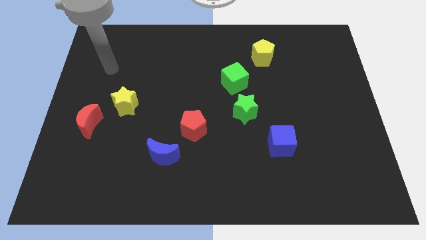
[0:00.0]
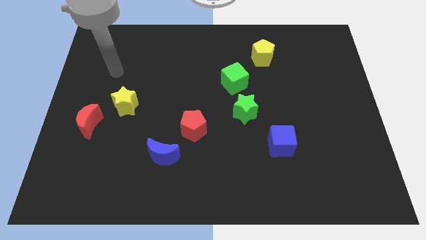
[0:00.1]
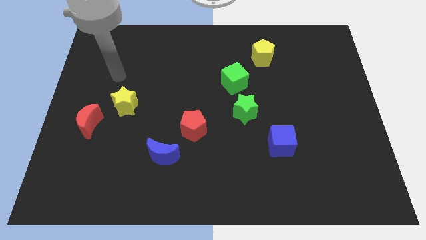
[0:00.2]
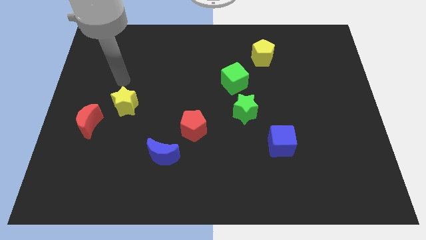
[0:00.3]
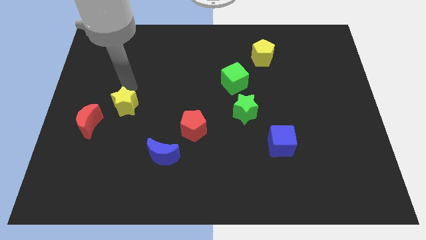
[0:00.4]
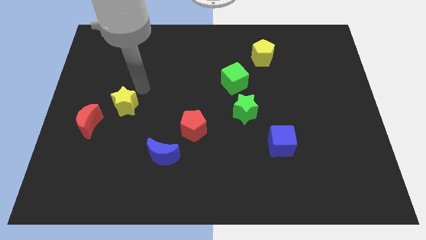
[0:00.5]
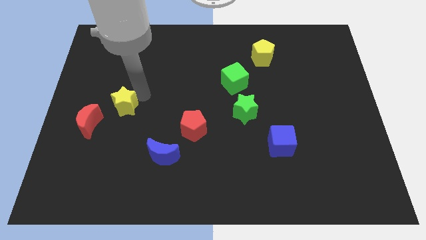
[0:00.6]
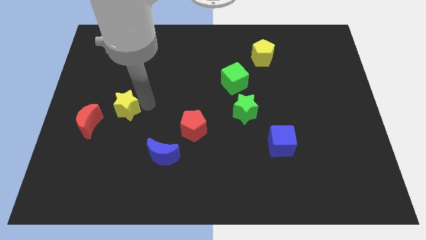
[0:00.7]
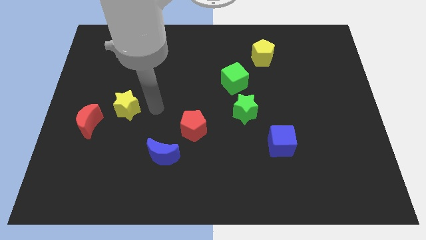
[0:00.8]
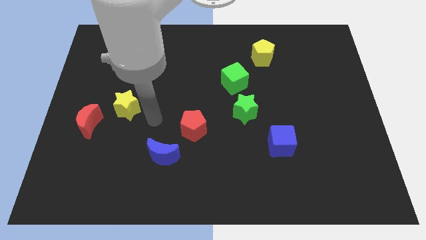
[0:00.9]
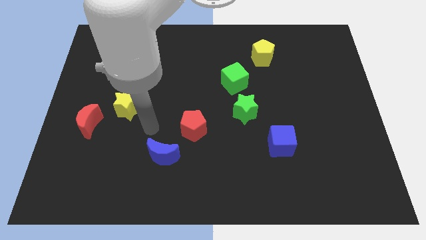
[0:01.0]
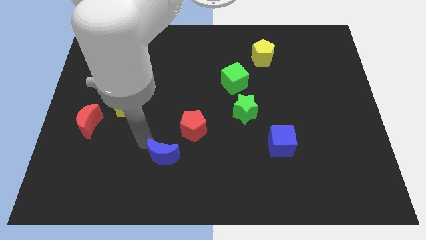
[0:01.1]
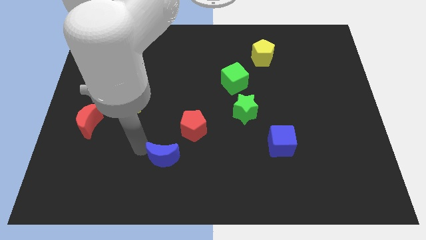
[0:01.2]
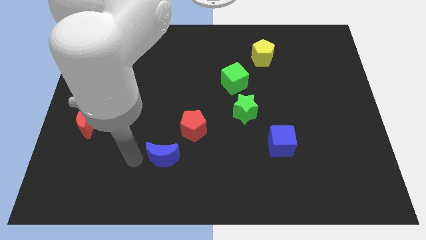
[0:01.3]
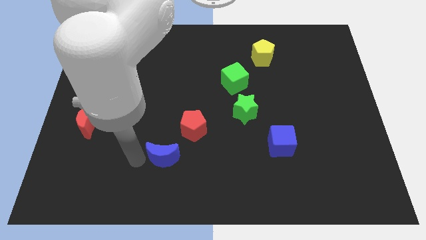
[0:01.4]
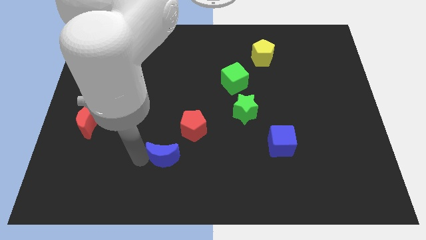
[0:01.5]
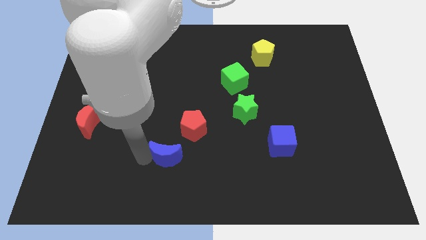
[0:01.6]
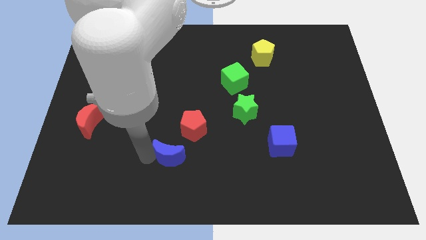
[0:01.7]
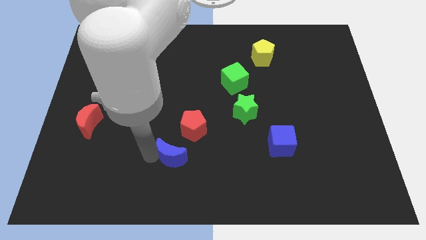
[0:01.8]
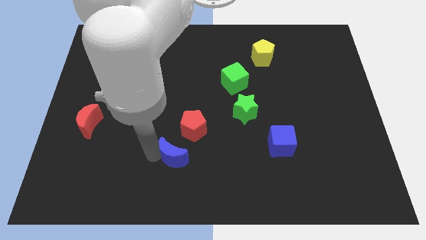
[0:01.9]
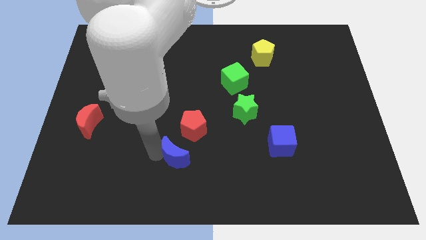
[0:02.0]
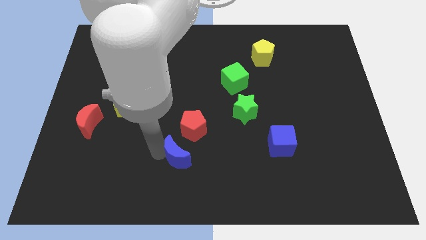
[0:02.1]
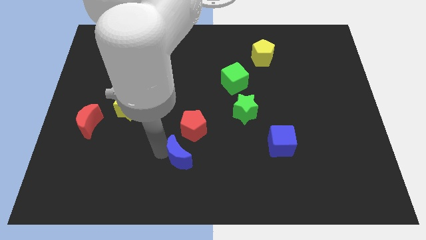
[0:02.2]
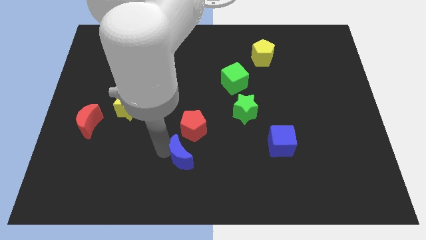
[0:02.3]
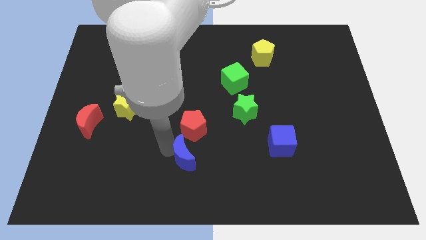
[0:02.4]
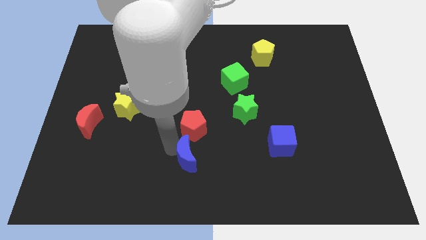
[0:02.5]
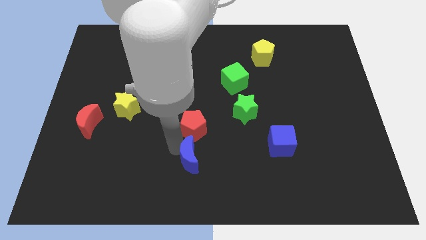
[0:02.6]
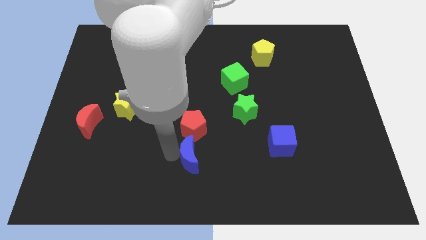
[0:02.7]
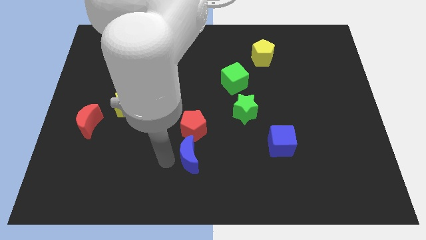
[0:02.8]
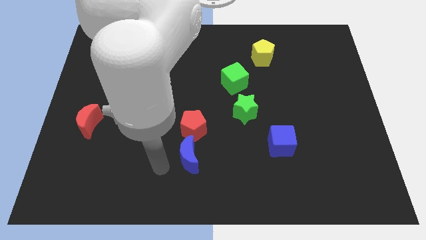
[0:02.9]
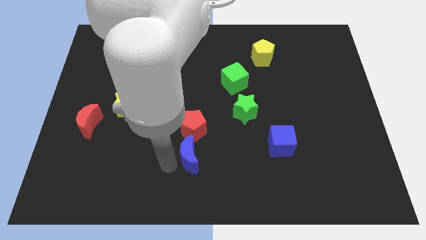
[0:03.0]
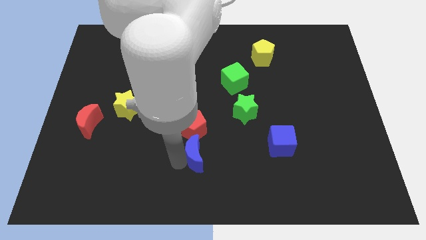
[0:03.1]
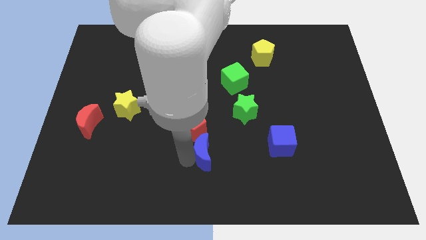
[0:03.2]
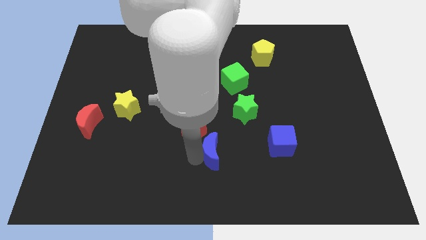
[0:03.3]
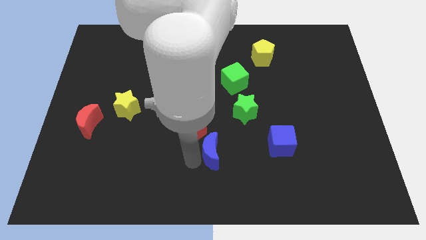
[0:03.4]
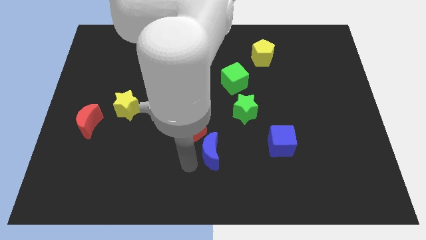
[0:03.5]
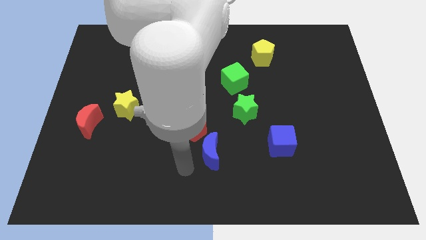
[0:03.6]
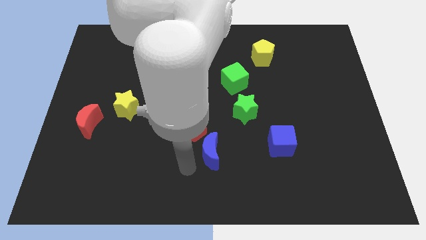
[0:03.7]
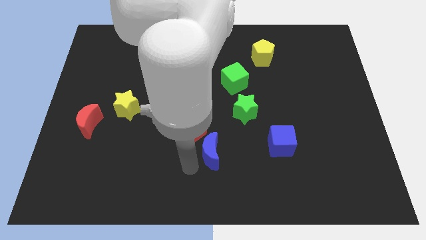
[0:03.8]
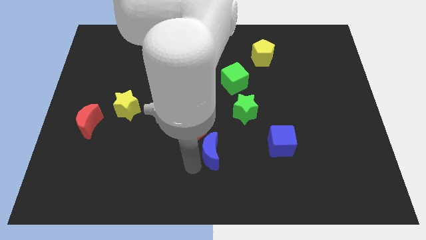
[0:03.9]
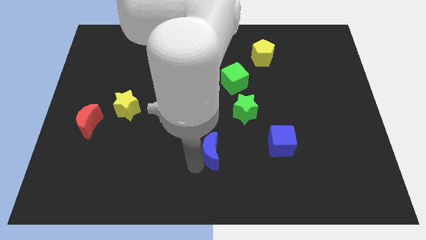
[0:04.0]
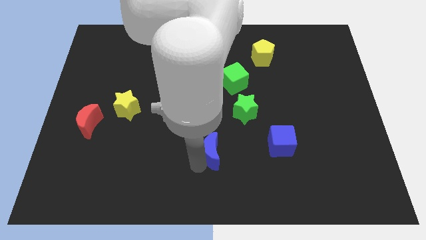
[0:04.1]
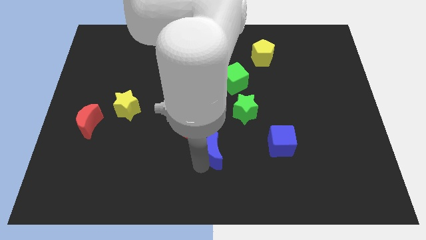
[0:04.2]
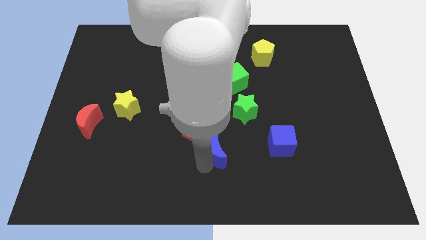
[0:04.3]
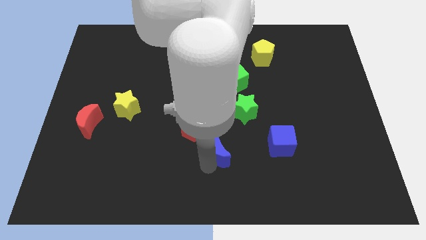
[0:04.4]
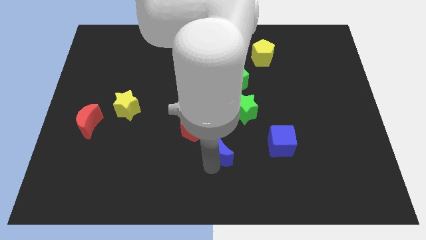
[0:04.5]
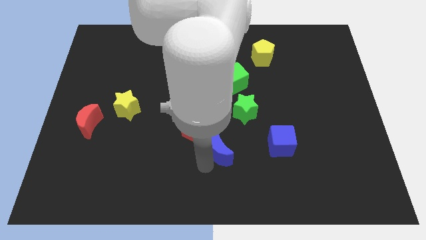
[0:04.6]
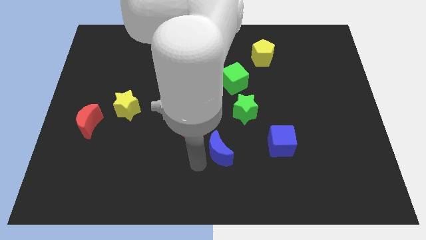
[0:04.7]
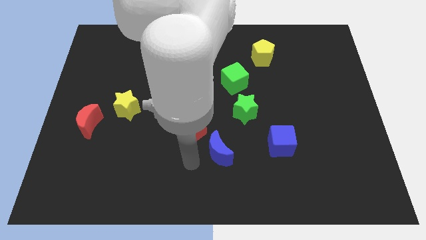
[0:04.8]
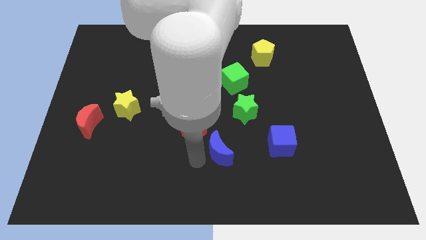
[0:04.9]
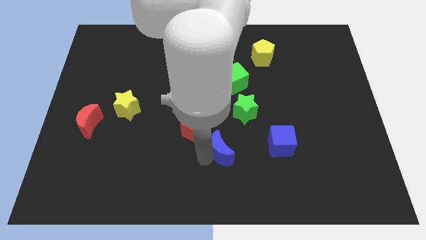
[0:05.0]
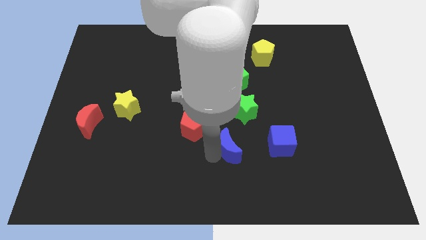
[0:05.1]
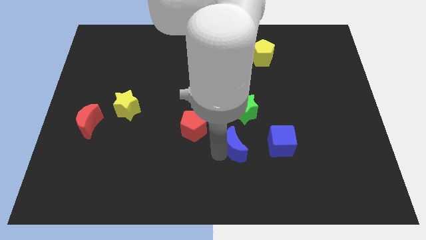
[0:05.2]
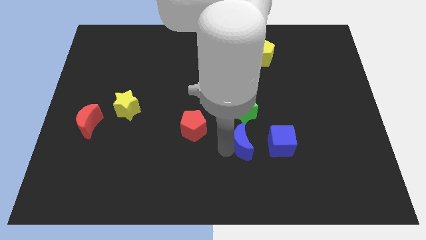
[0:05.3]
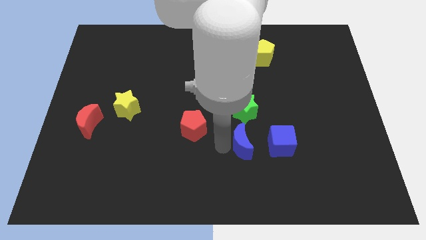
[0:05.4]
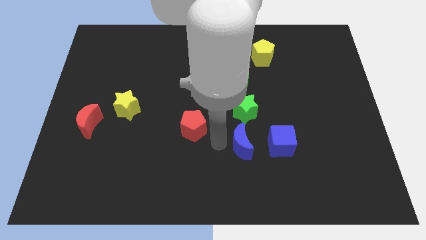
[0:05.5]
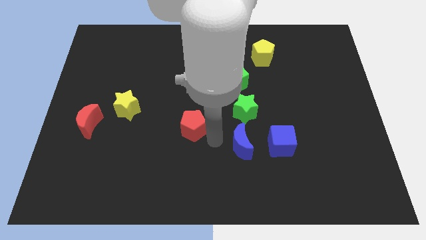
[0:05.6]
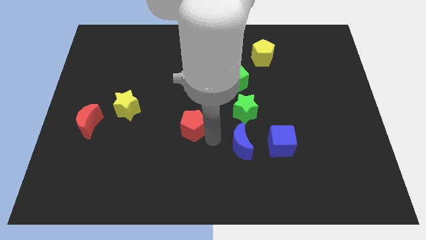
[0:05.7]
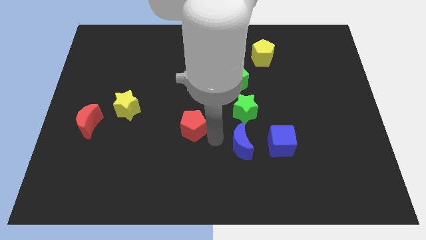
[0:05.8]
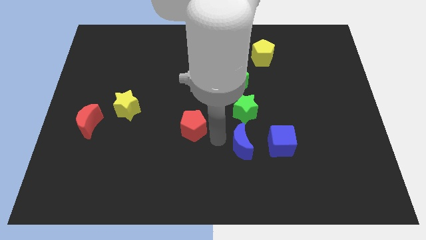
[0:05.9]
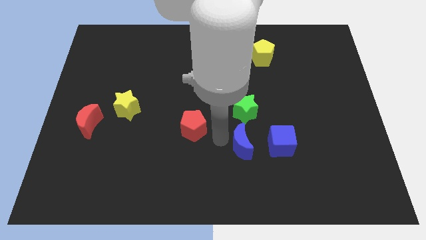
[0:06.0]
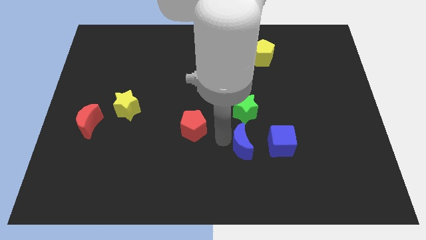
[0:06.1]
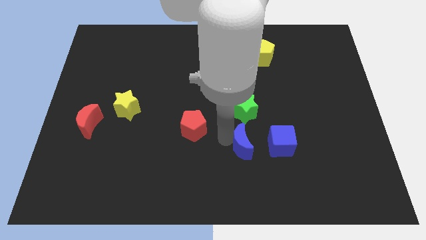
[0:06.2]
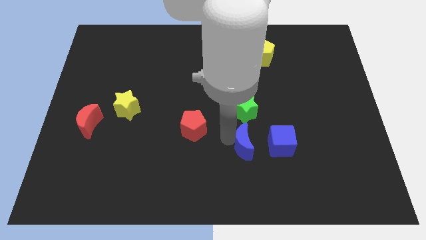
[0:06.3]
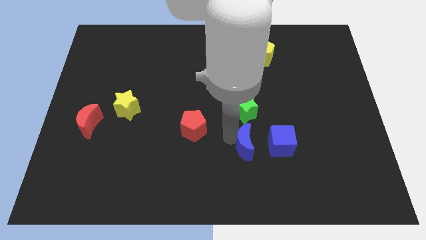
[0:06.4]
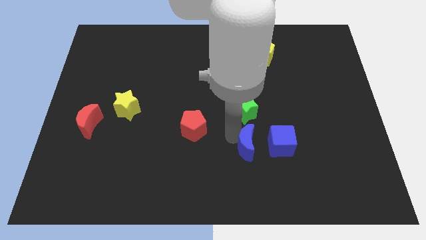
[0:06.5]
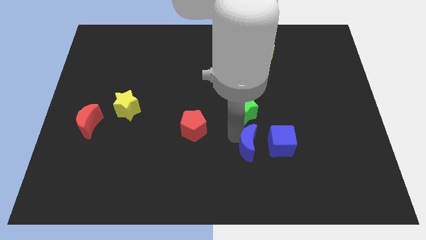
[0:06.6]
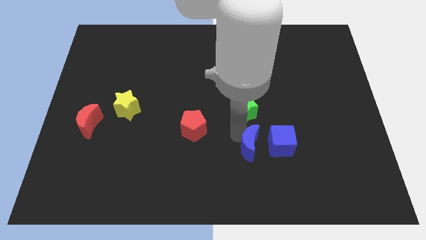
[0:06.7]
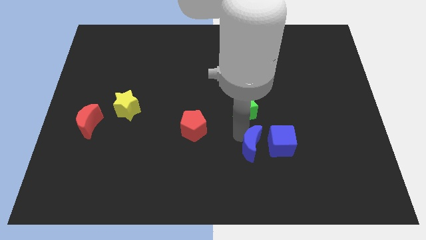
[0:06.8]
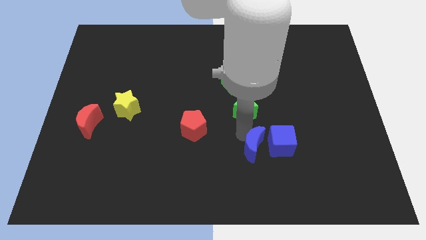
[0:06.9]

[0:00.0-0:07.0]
put the blue moon towards the blue cube

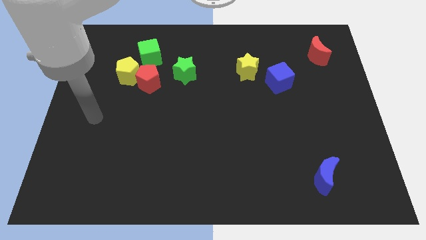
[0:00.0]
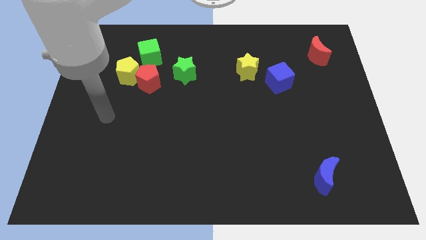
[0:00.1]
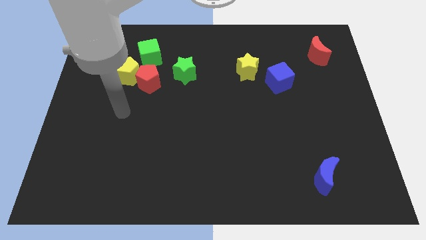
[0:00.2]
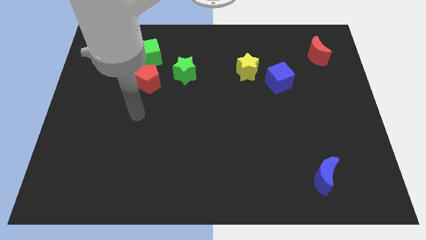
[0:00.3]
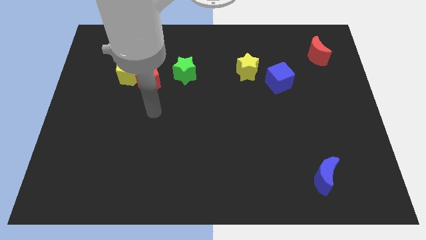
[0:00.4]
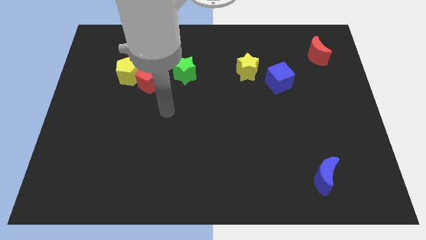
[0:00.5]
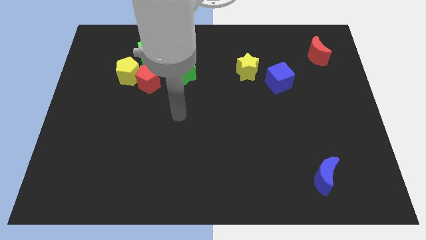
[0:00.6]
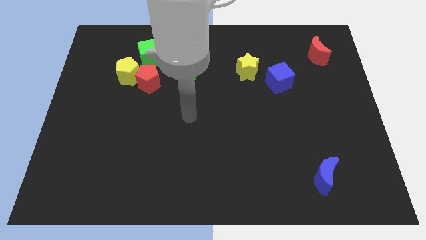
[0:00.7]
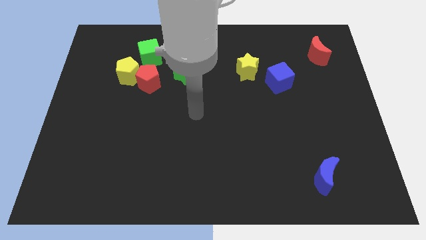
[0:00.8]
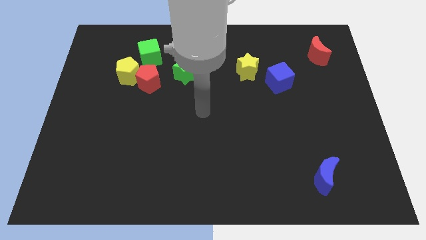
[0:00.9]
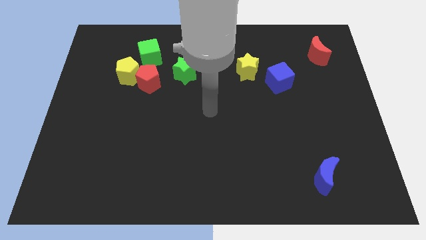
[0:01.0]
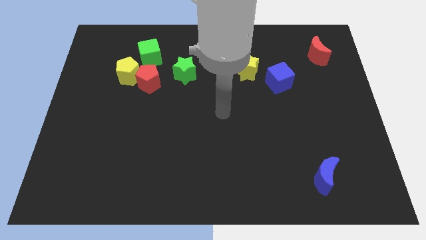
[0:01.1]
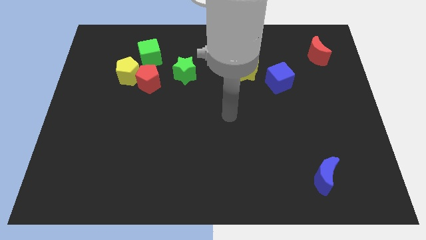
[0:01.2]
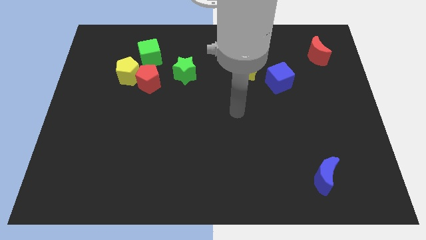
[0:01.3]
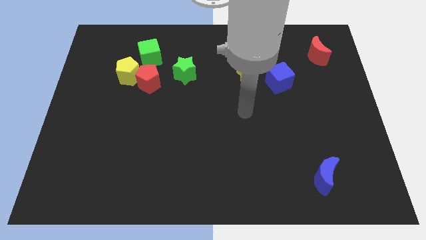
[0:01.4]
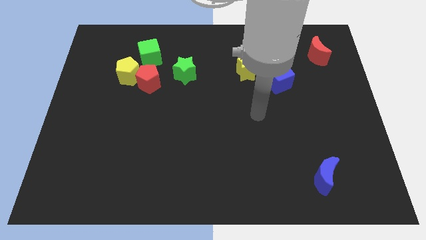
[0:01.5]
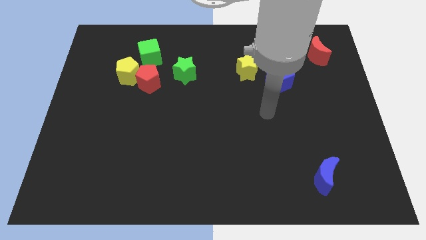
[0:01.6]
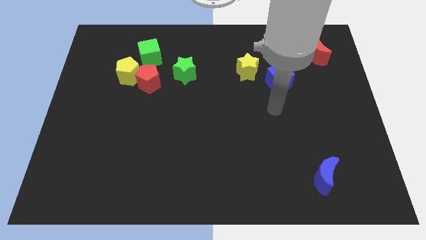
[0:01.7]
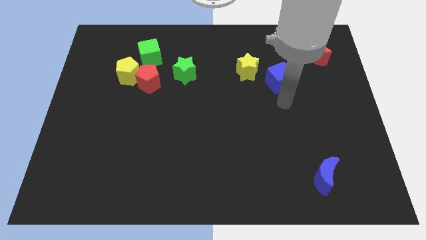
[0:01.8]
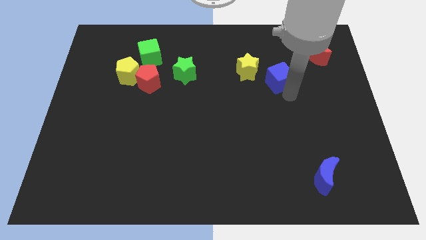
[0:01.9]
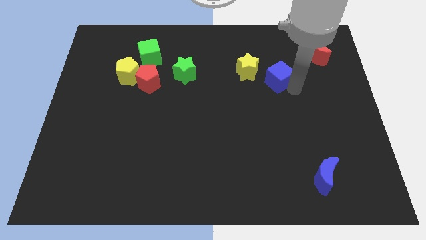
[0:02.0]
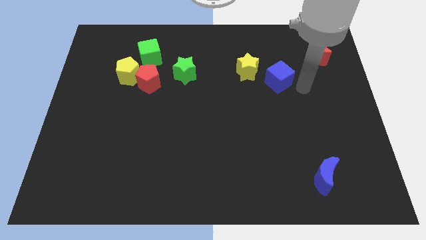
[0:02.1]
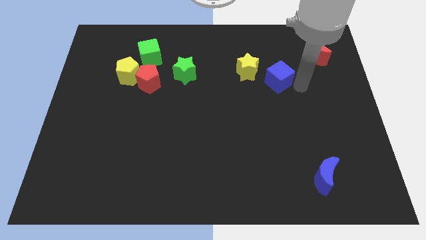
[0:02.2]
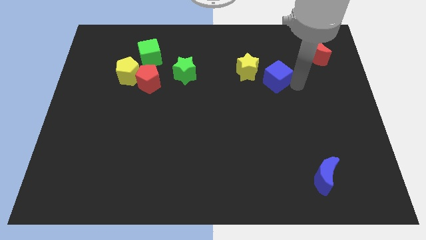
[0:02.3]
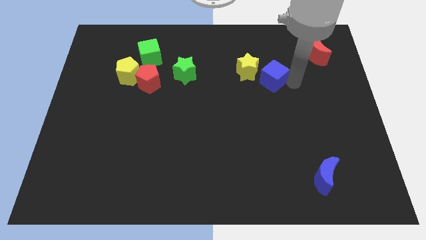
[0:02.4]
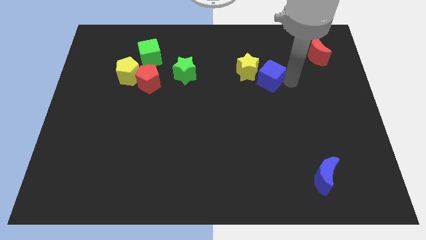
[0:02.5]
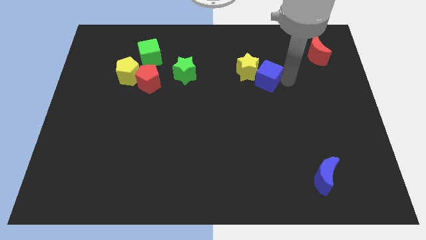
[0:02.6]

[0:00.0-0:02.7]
move the blue cube to the yellow star
